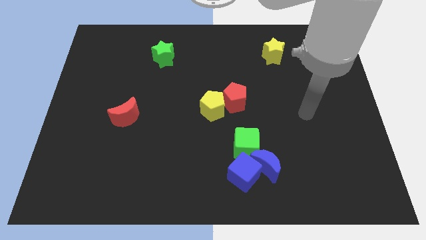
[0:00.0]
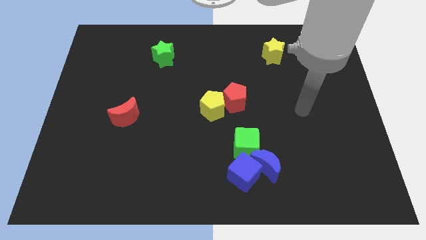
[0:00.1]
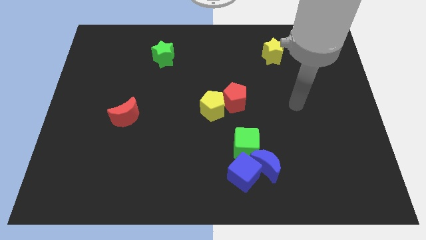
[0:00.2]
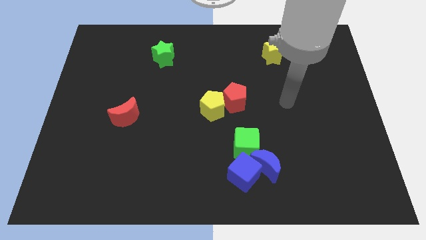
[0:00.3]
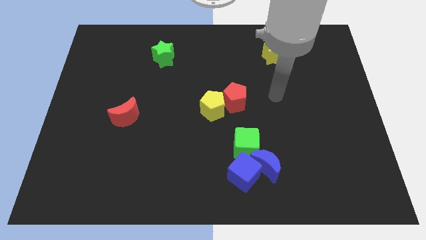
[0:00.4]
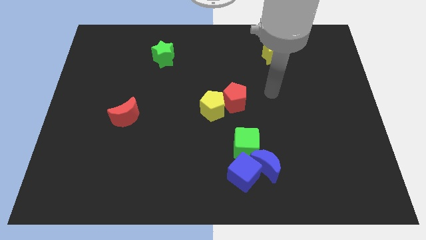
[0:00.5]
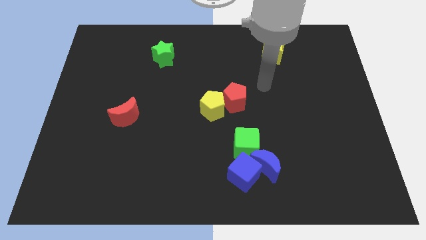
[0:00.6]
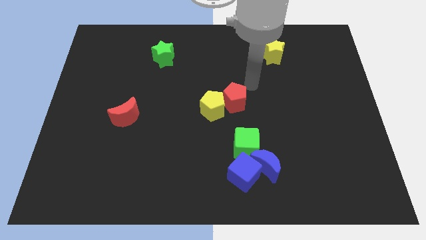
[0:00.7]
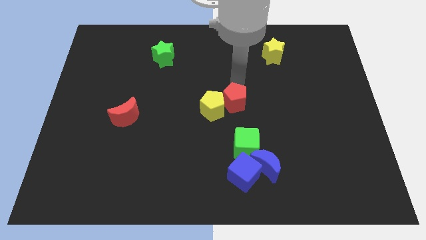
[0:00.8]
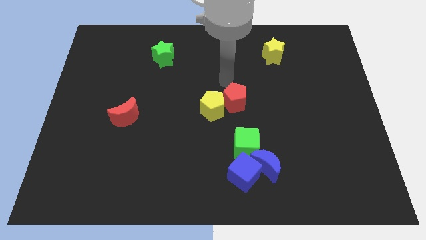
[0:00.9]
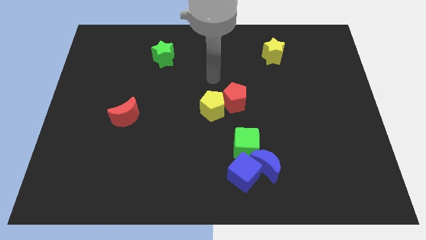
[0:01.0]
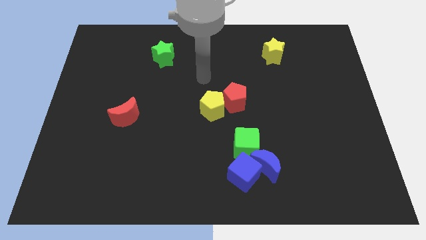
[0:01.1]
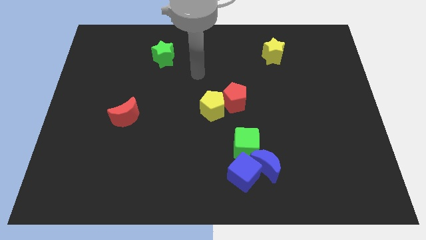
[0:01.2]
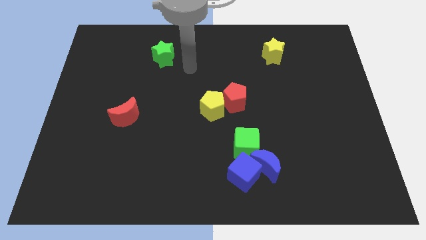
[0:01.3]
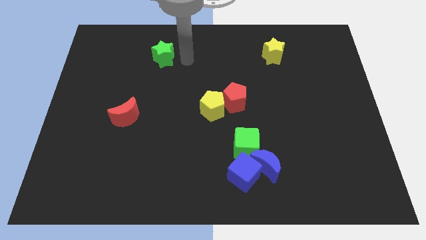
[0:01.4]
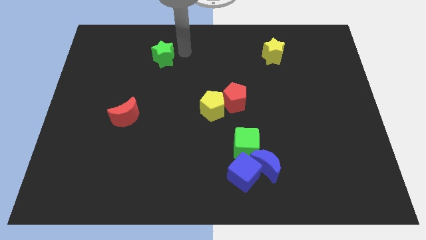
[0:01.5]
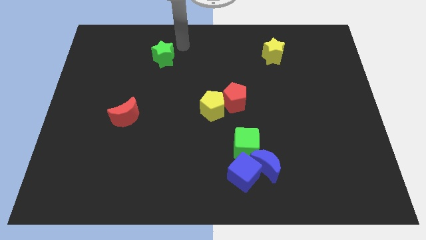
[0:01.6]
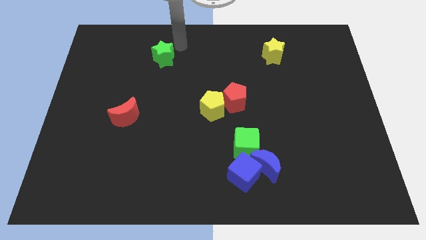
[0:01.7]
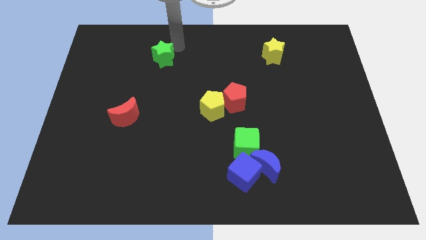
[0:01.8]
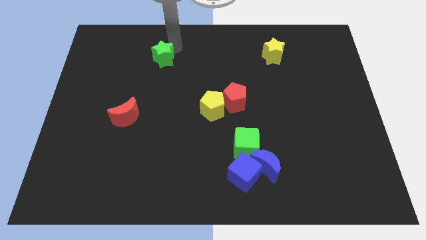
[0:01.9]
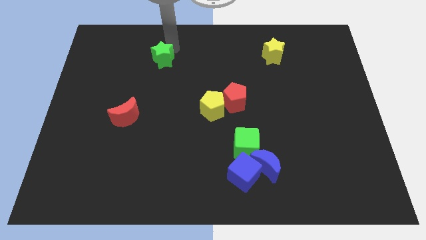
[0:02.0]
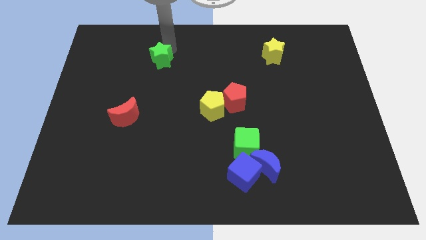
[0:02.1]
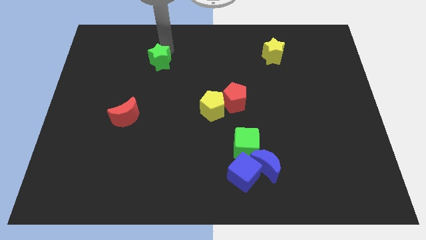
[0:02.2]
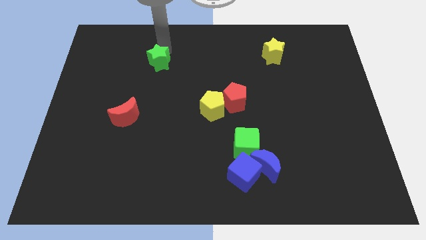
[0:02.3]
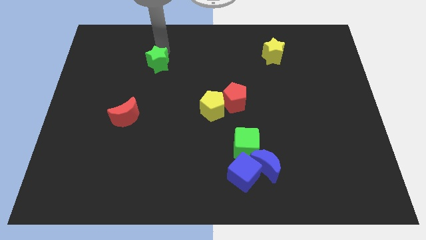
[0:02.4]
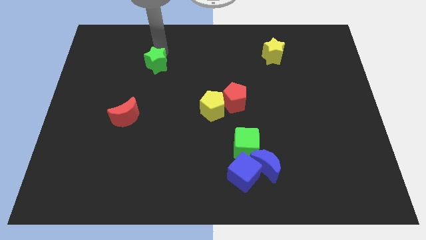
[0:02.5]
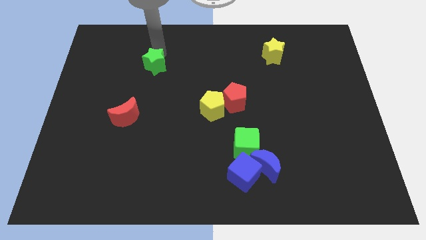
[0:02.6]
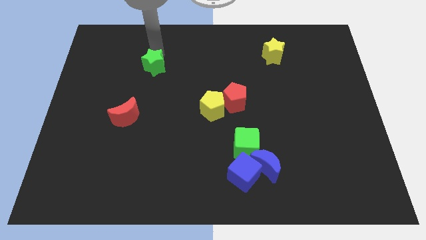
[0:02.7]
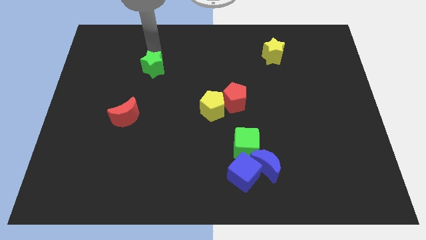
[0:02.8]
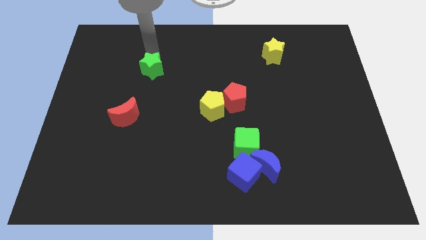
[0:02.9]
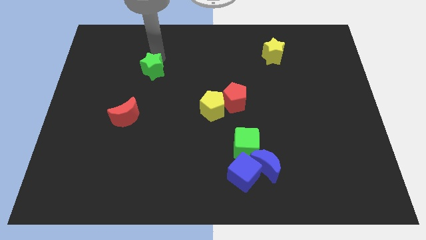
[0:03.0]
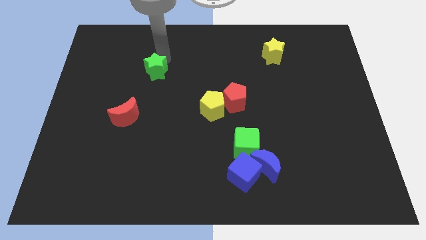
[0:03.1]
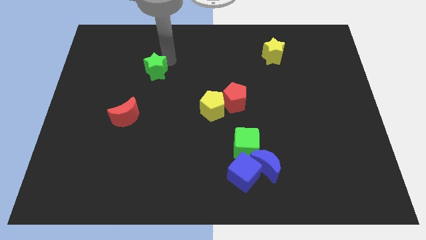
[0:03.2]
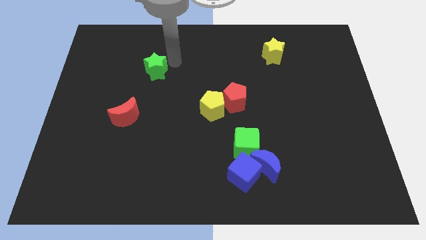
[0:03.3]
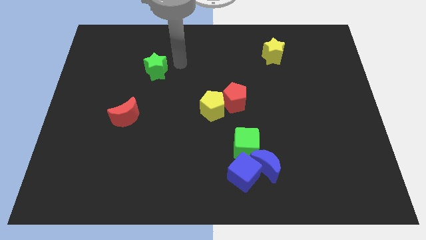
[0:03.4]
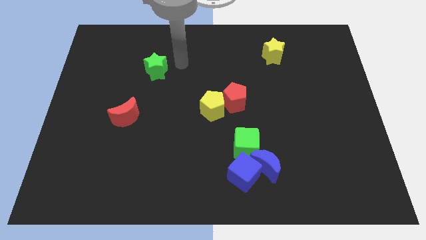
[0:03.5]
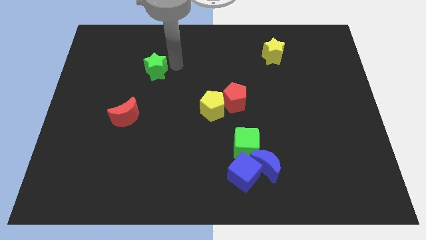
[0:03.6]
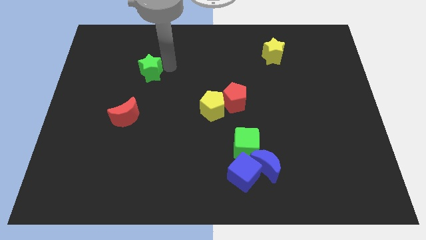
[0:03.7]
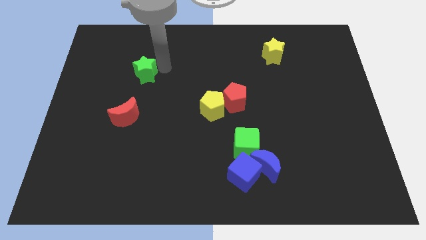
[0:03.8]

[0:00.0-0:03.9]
slightly push the green star diagonally down and to the left

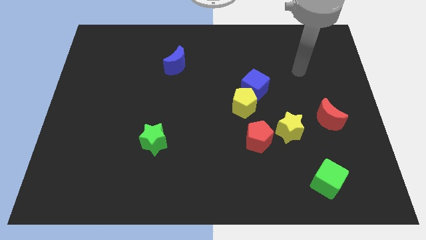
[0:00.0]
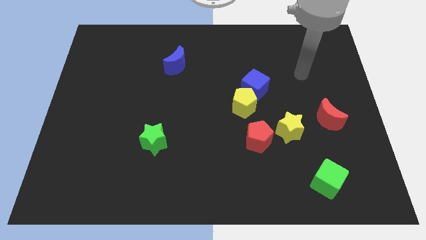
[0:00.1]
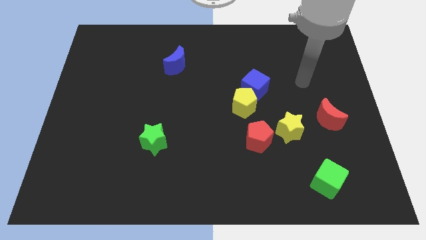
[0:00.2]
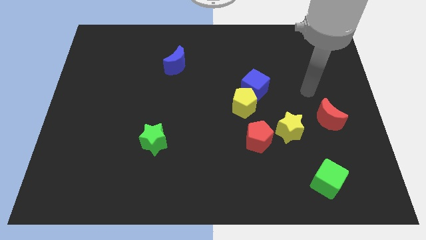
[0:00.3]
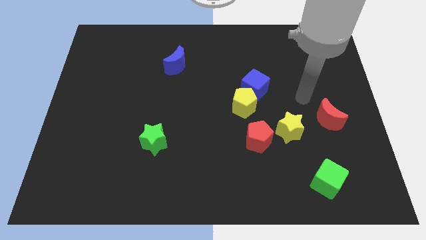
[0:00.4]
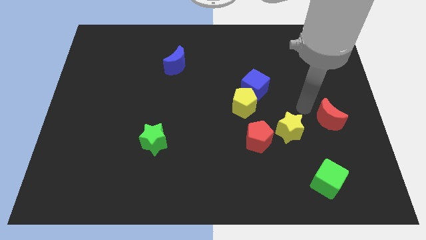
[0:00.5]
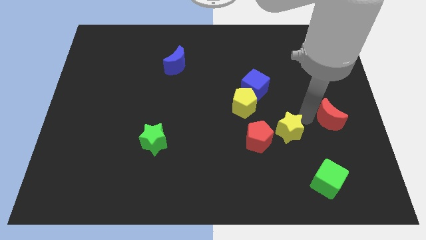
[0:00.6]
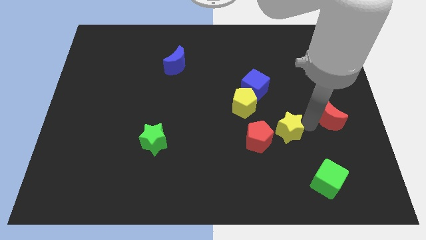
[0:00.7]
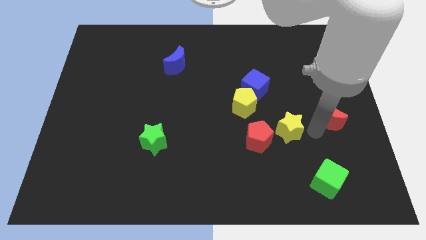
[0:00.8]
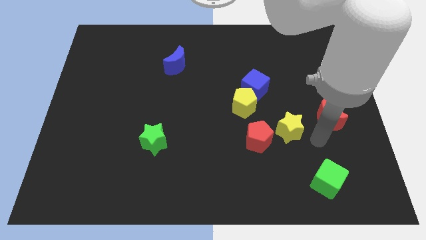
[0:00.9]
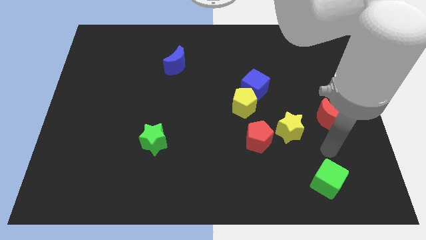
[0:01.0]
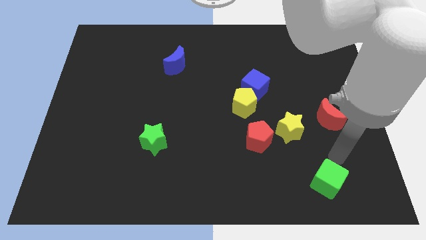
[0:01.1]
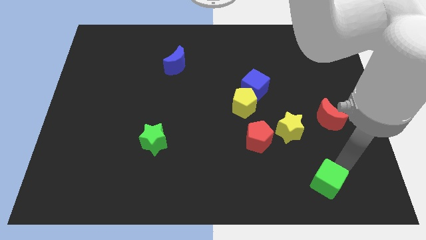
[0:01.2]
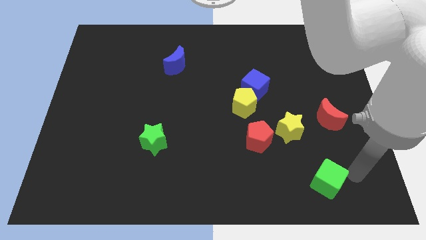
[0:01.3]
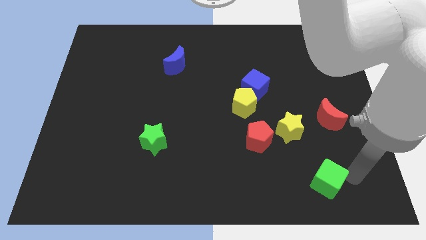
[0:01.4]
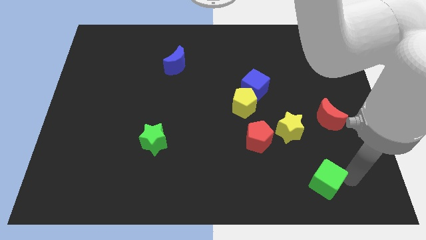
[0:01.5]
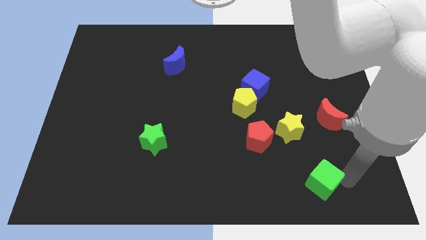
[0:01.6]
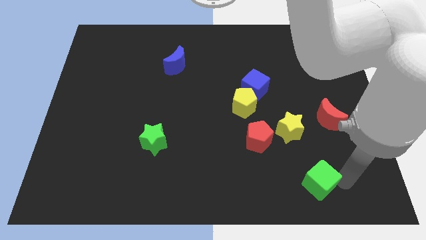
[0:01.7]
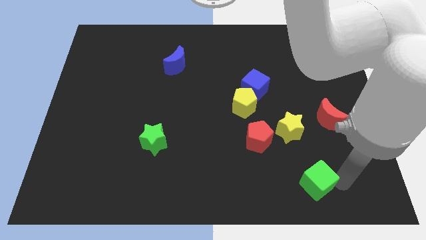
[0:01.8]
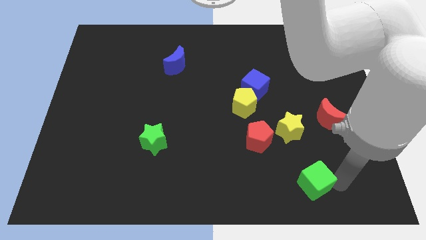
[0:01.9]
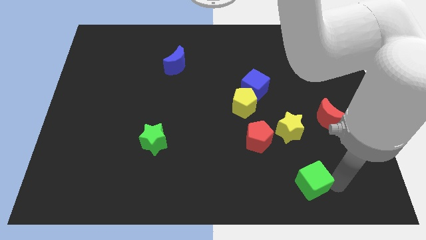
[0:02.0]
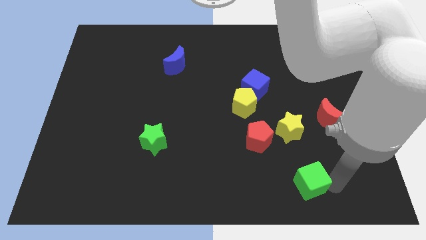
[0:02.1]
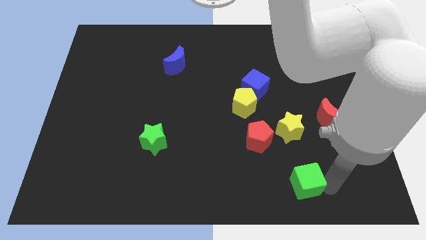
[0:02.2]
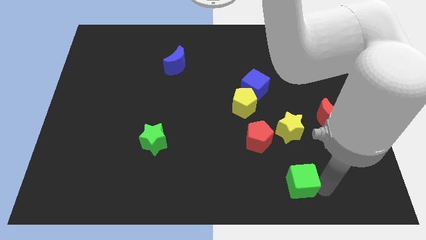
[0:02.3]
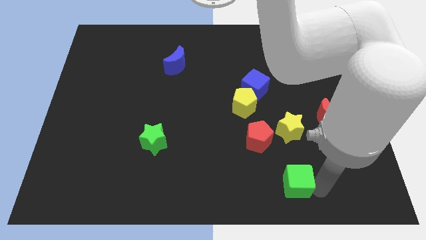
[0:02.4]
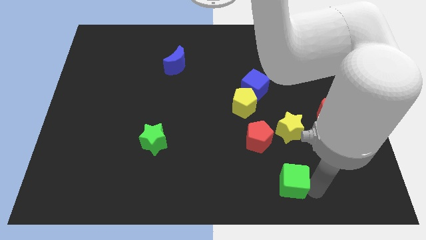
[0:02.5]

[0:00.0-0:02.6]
slightly push the green cube left

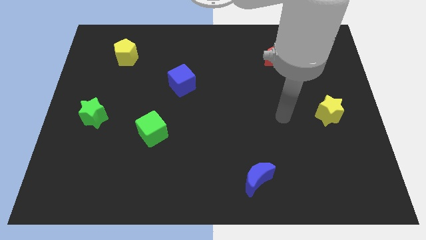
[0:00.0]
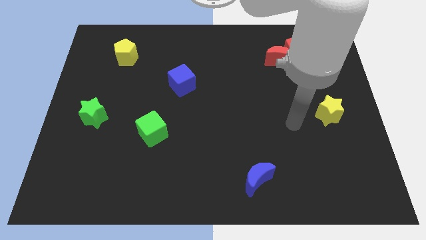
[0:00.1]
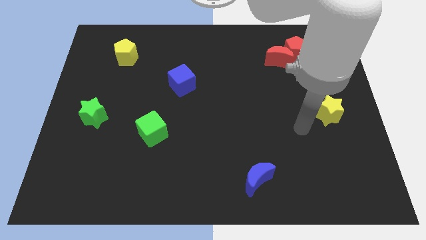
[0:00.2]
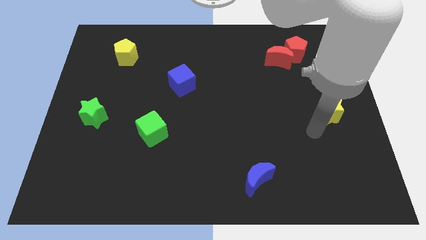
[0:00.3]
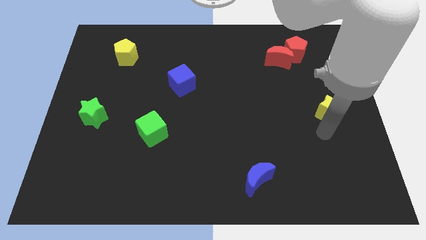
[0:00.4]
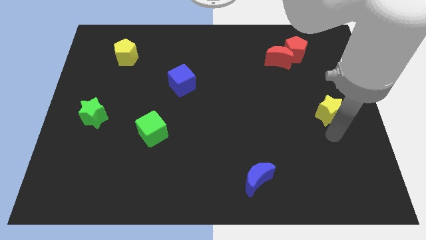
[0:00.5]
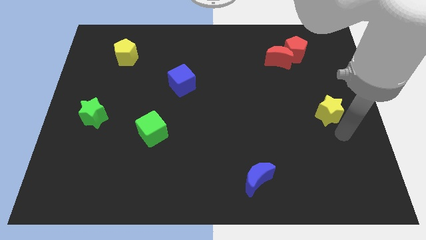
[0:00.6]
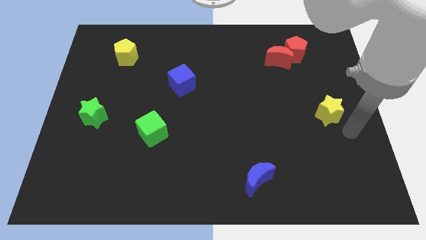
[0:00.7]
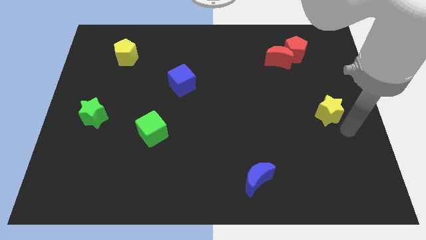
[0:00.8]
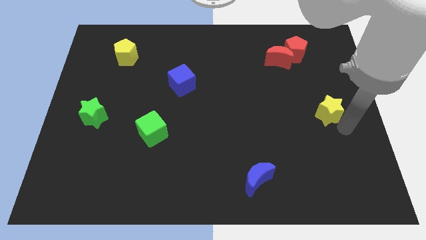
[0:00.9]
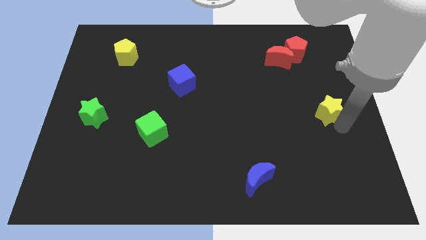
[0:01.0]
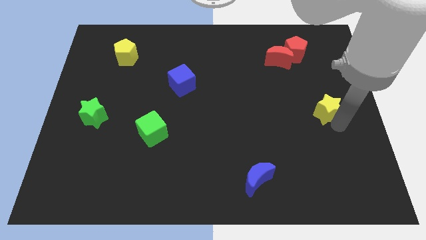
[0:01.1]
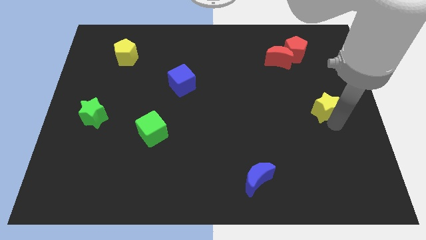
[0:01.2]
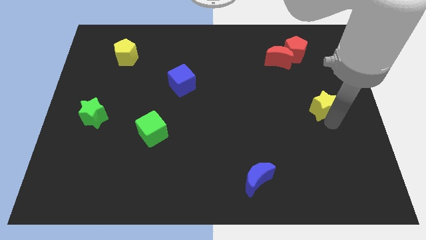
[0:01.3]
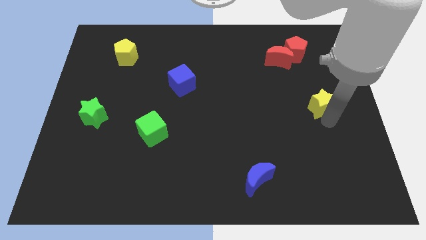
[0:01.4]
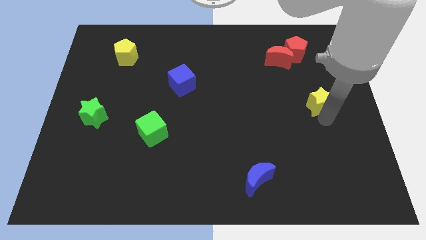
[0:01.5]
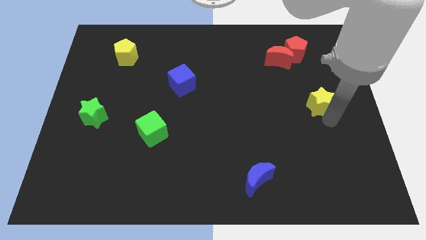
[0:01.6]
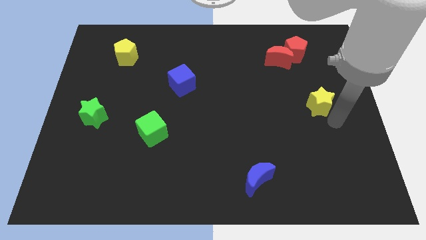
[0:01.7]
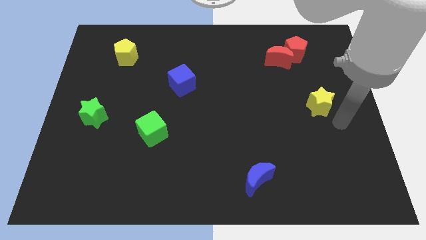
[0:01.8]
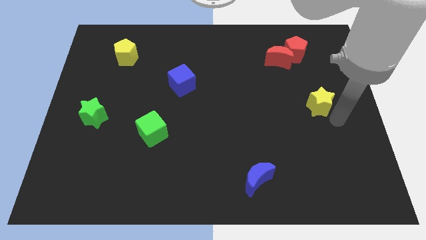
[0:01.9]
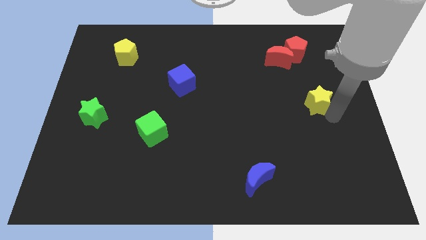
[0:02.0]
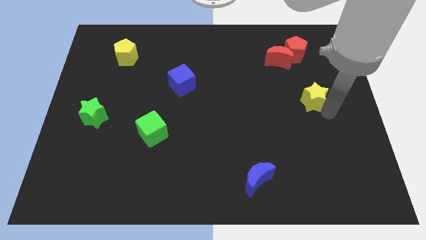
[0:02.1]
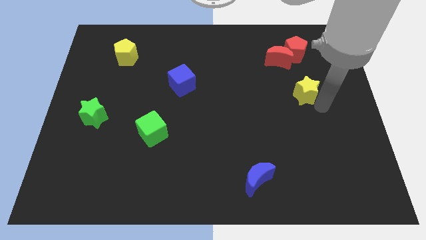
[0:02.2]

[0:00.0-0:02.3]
move the yellow star upwards and then to the left a little bit
